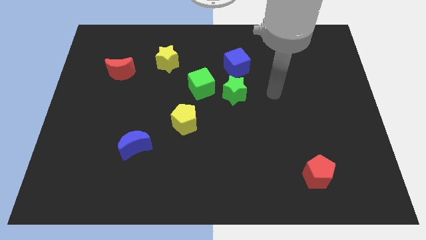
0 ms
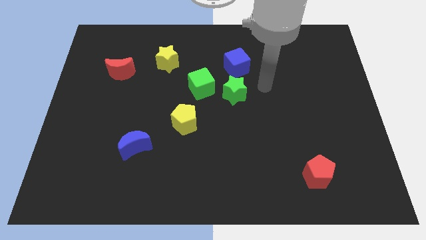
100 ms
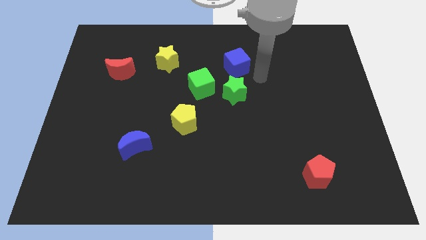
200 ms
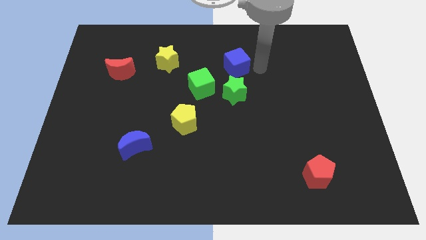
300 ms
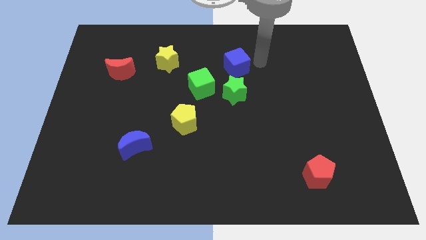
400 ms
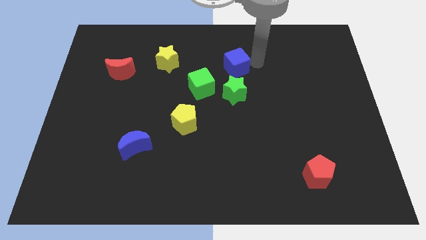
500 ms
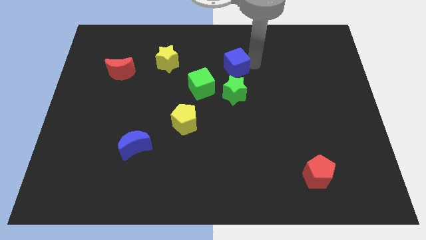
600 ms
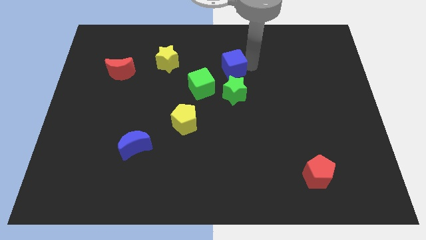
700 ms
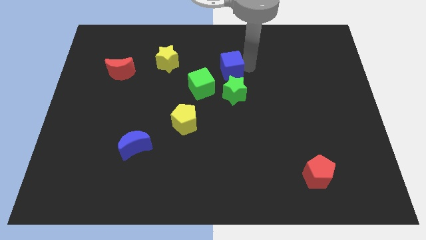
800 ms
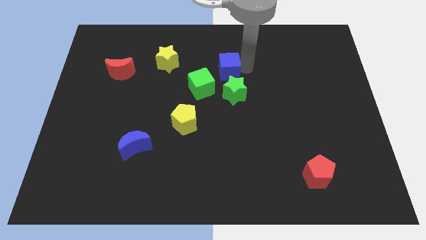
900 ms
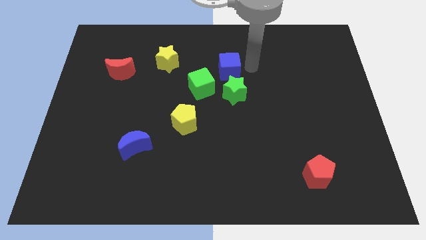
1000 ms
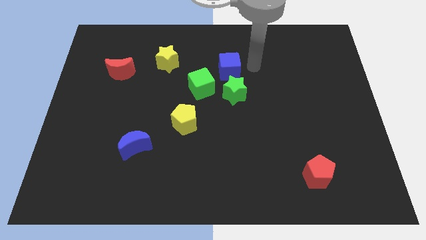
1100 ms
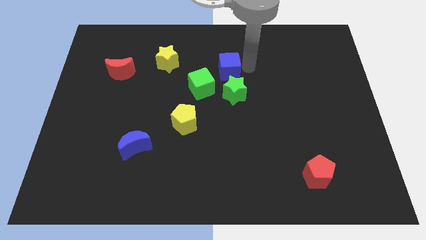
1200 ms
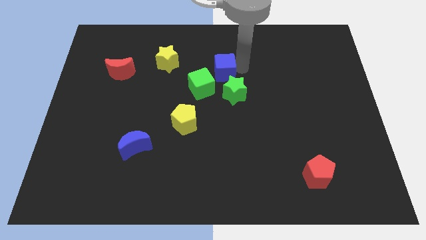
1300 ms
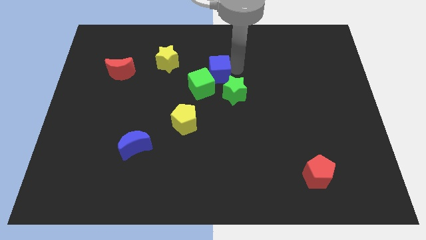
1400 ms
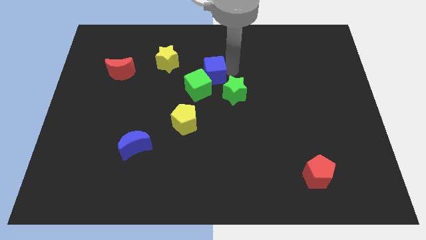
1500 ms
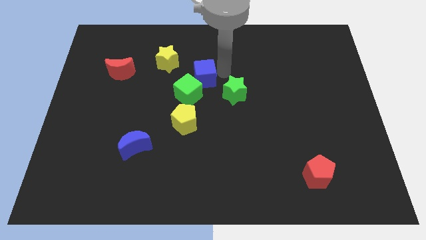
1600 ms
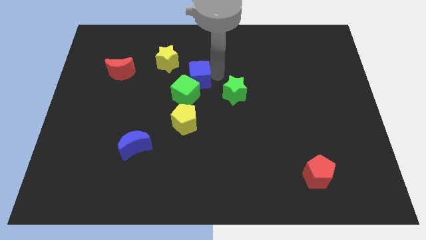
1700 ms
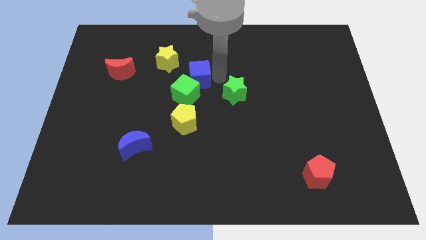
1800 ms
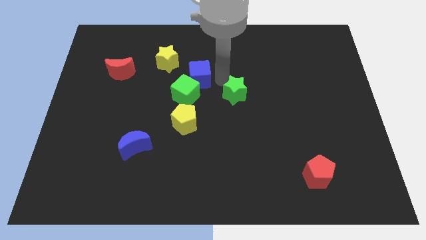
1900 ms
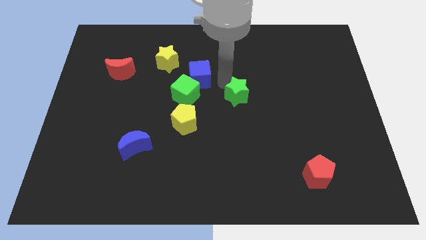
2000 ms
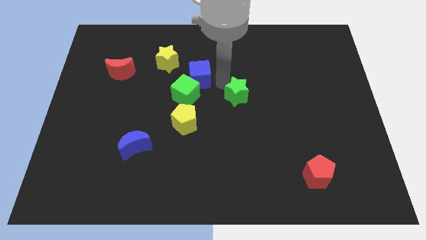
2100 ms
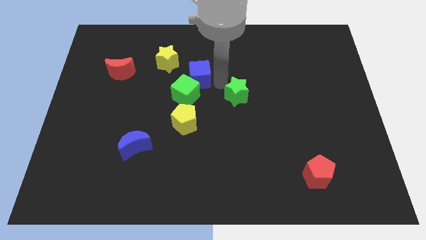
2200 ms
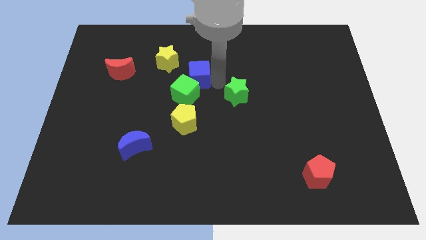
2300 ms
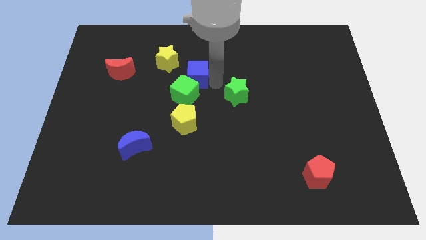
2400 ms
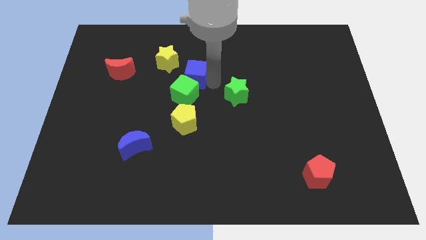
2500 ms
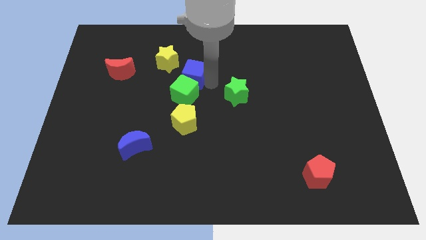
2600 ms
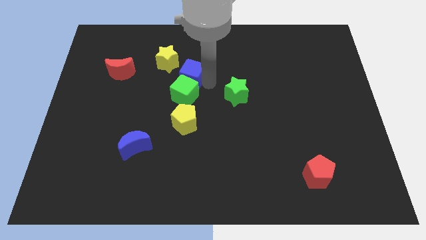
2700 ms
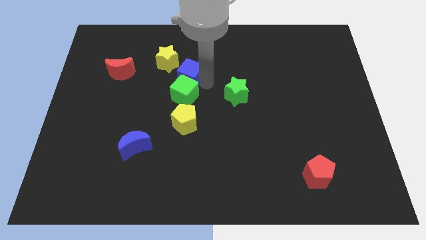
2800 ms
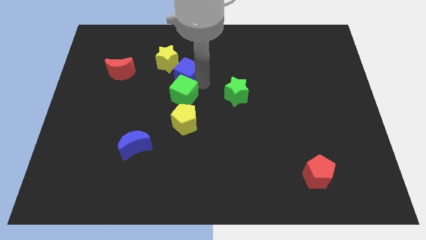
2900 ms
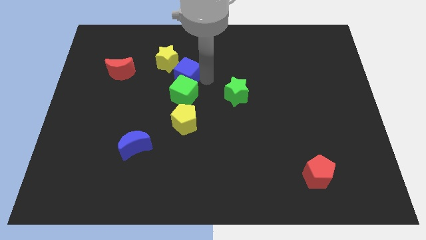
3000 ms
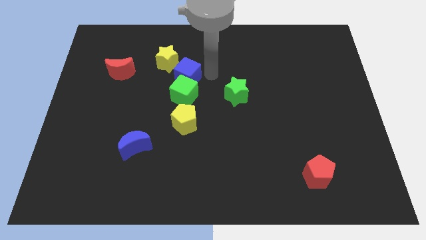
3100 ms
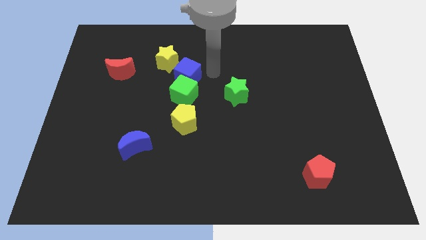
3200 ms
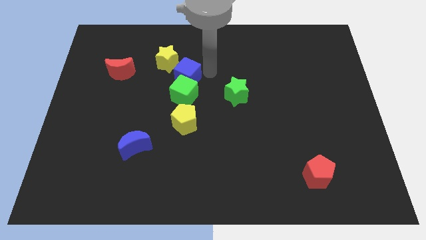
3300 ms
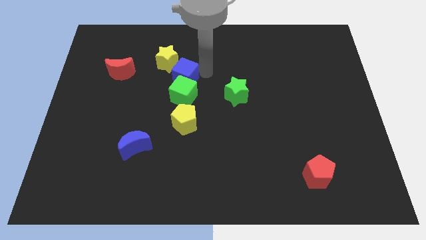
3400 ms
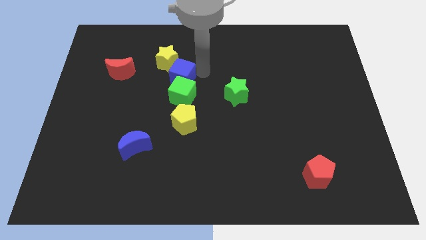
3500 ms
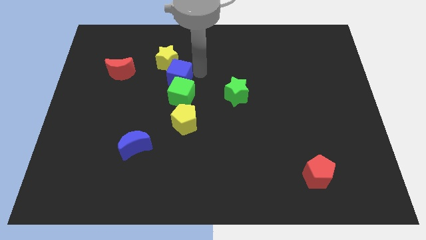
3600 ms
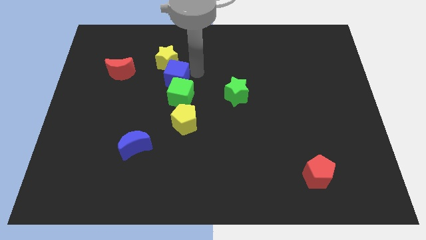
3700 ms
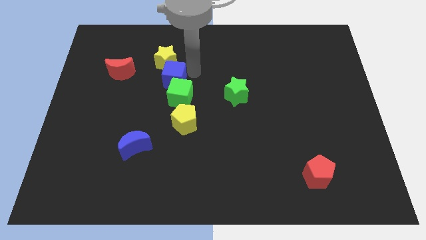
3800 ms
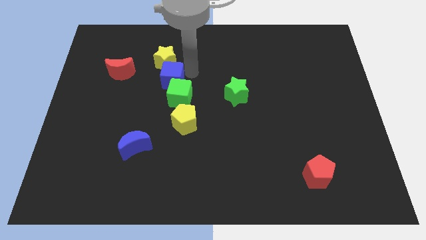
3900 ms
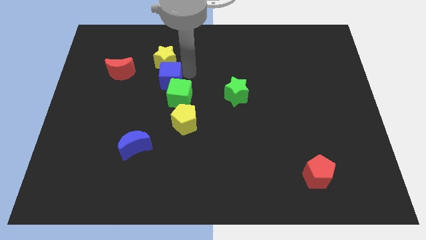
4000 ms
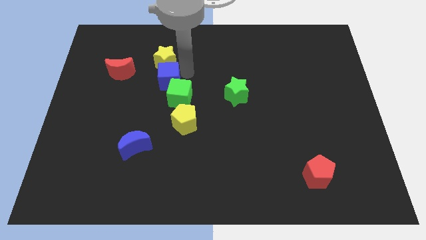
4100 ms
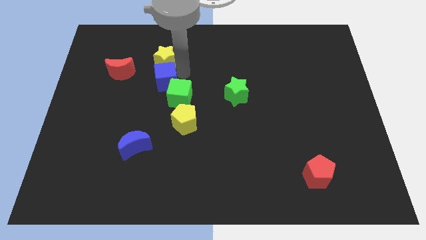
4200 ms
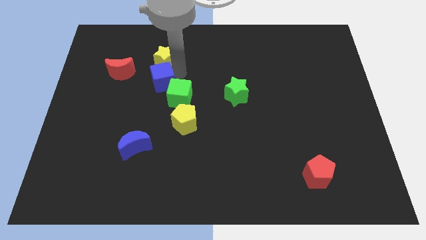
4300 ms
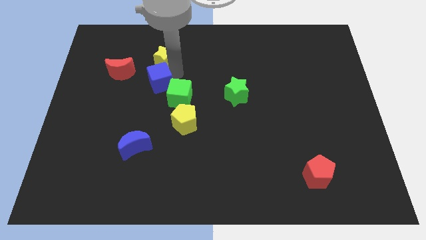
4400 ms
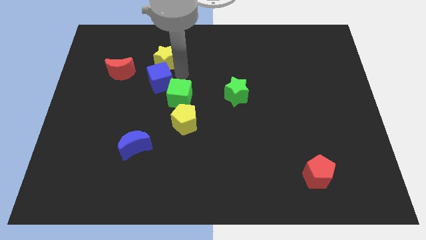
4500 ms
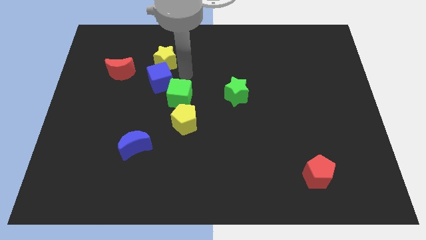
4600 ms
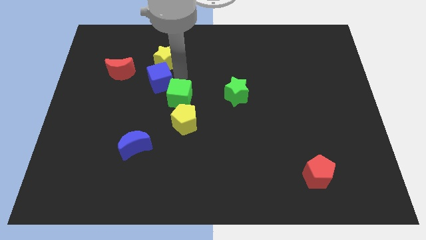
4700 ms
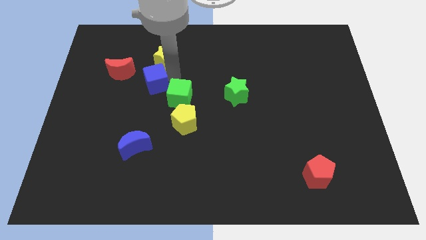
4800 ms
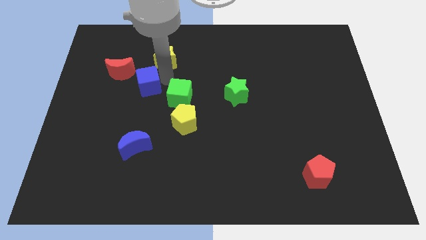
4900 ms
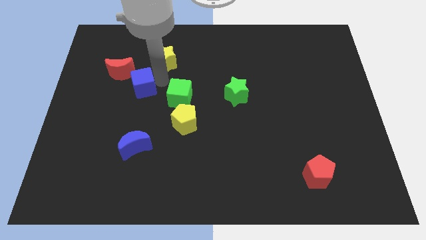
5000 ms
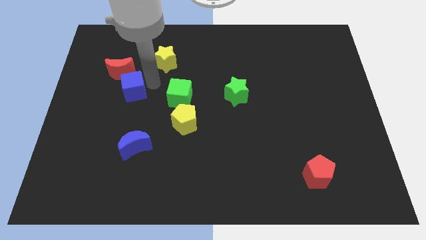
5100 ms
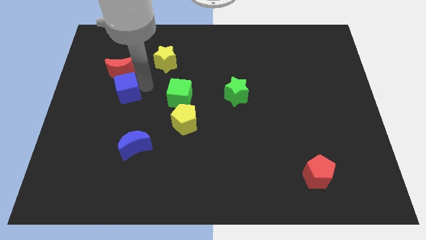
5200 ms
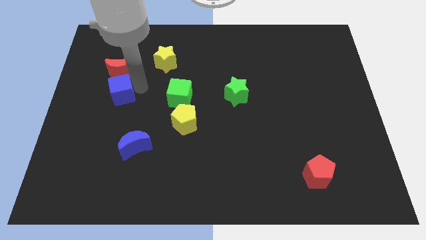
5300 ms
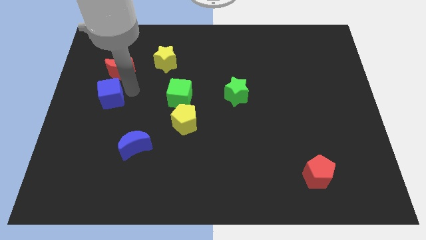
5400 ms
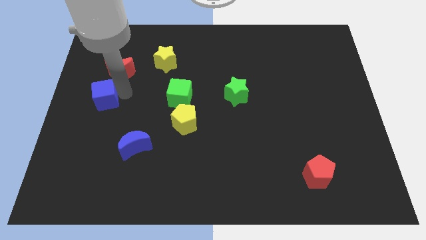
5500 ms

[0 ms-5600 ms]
put the blue cube to the left side

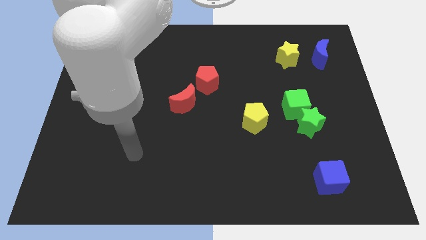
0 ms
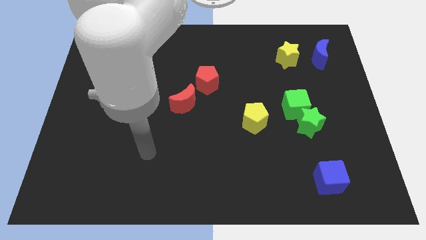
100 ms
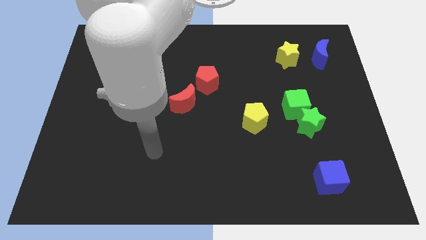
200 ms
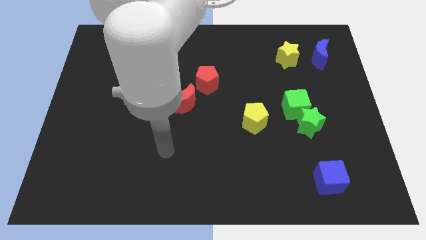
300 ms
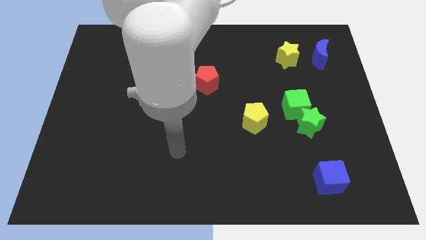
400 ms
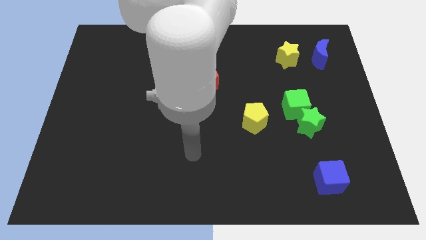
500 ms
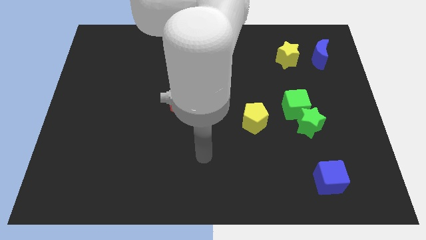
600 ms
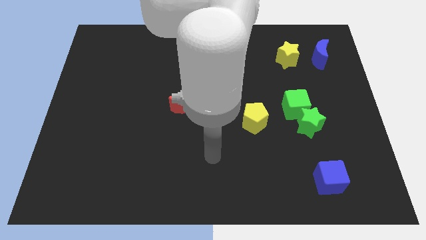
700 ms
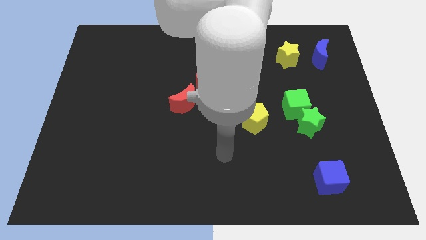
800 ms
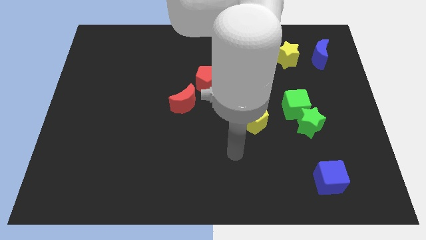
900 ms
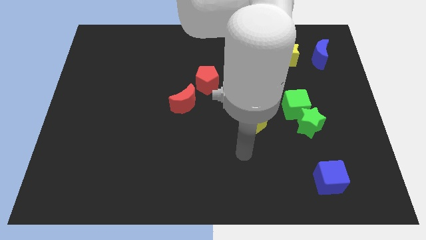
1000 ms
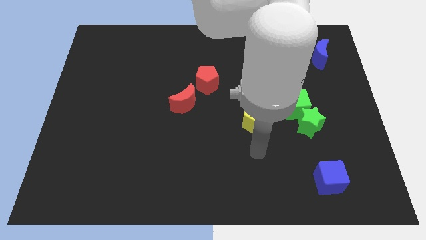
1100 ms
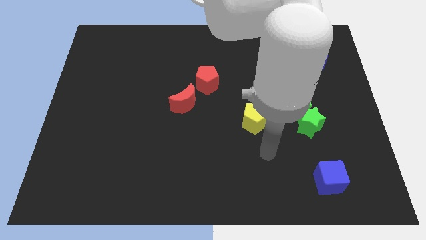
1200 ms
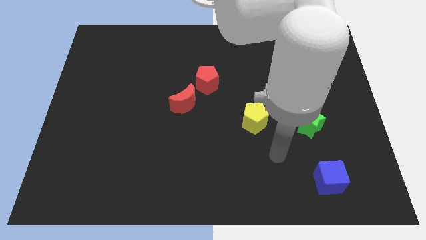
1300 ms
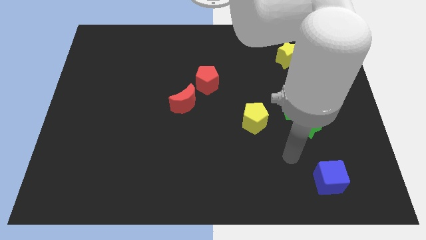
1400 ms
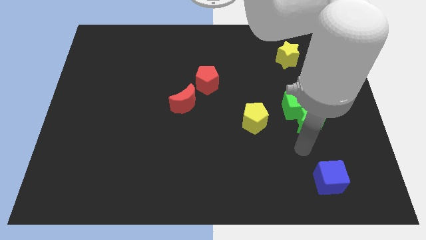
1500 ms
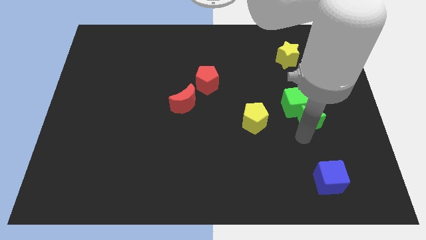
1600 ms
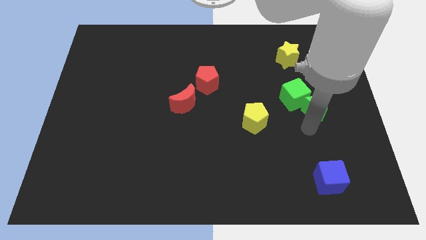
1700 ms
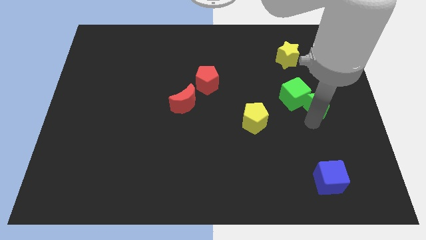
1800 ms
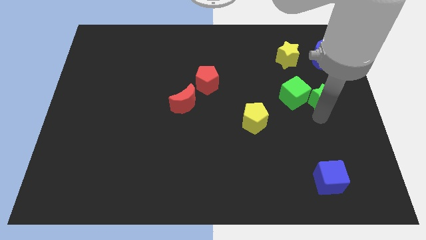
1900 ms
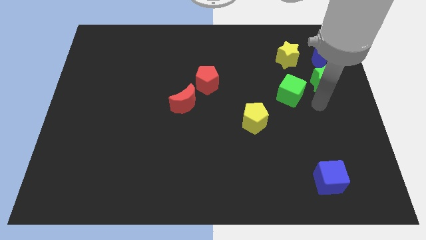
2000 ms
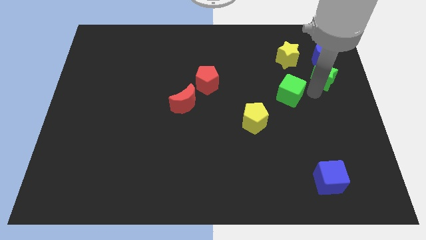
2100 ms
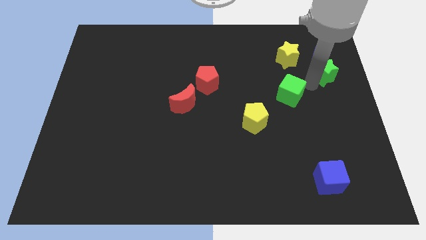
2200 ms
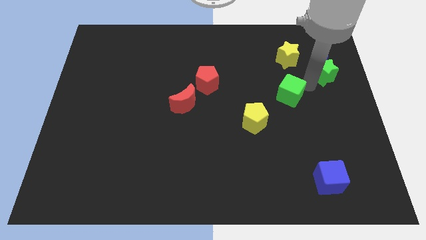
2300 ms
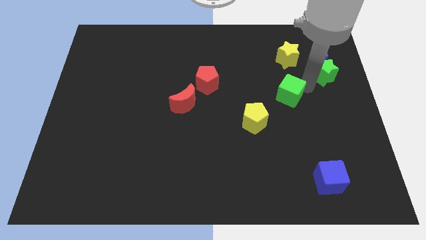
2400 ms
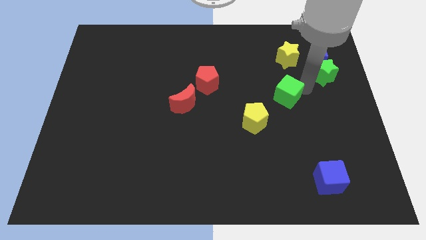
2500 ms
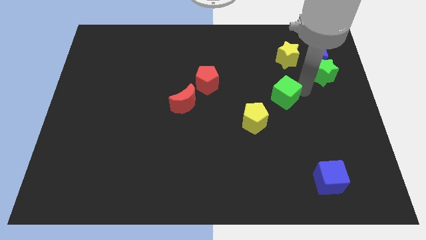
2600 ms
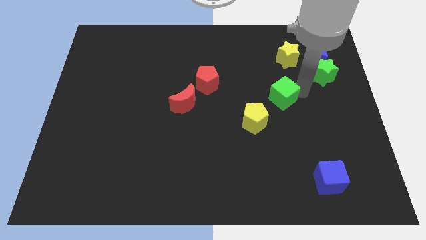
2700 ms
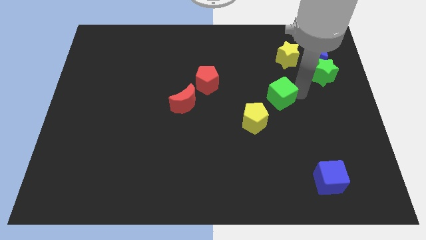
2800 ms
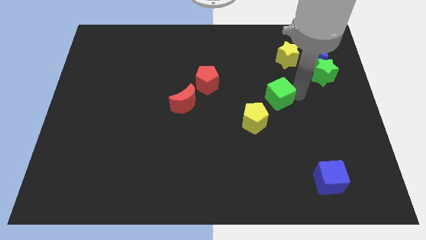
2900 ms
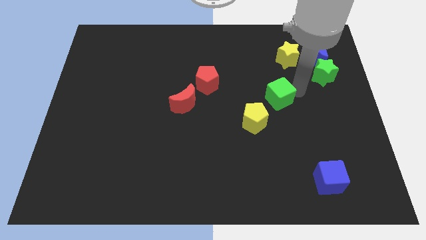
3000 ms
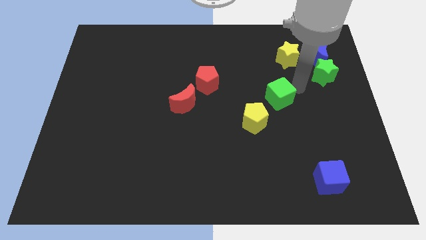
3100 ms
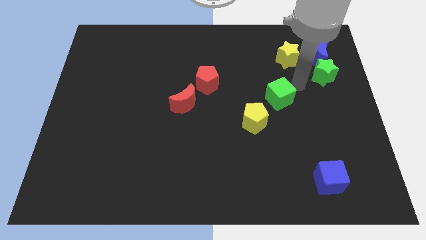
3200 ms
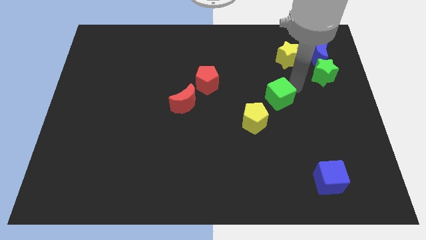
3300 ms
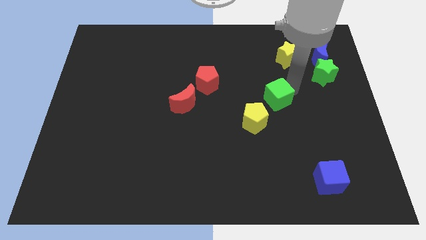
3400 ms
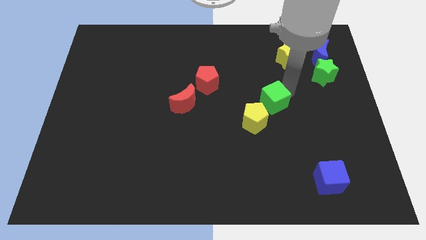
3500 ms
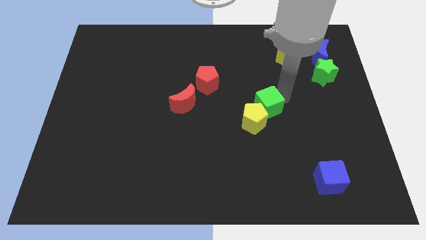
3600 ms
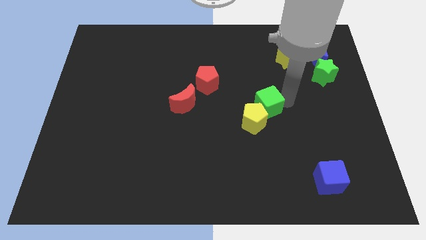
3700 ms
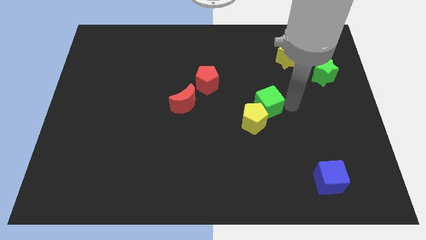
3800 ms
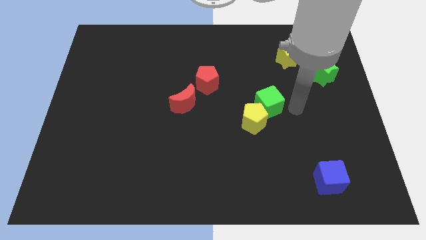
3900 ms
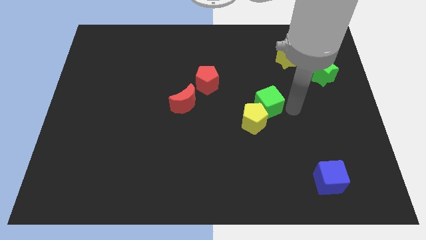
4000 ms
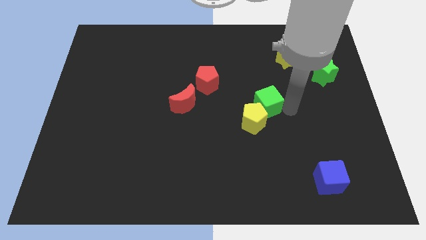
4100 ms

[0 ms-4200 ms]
move the green cube to the center
